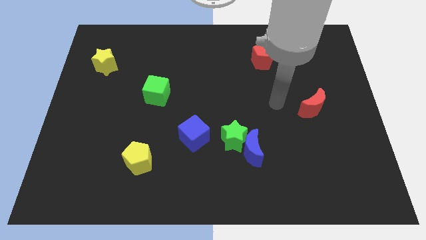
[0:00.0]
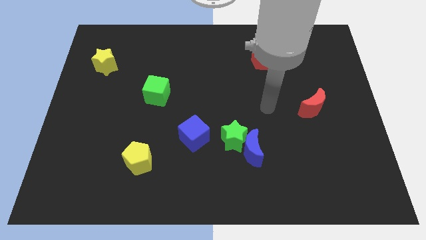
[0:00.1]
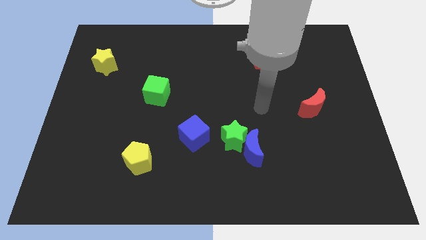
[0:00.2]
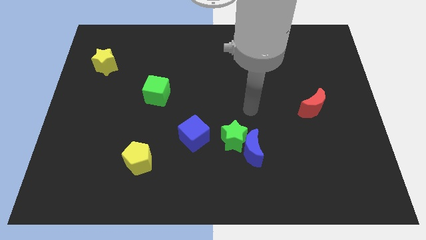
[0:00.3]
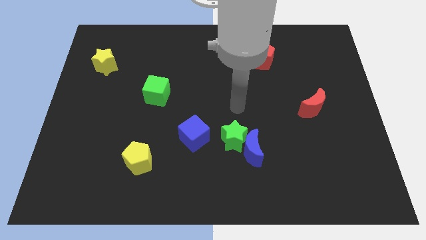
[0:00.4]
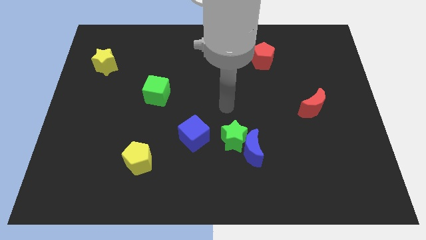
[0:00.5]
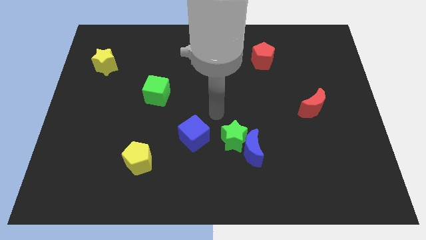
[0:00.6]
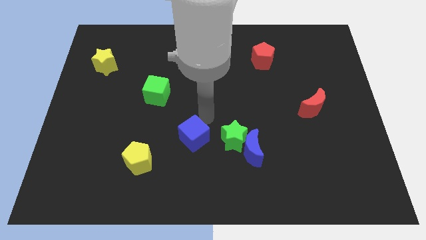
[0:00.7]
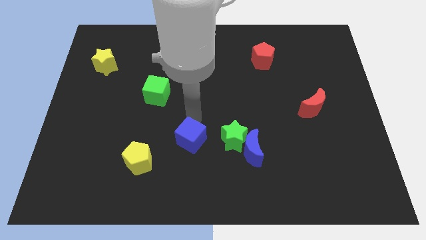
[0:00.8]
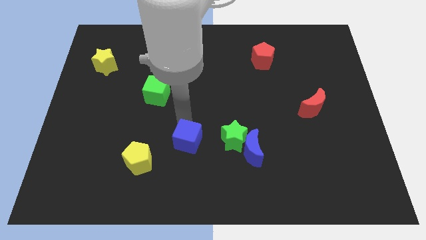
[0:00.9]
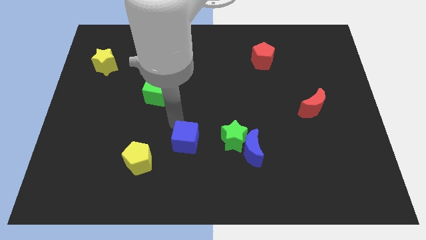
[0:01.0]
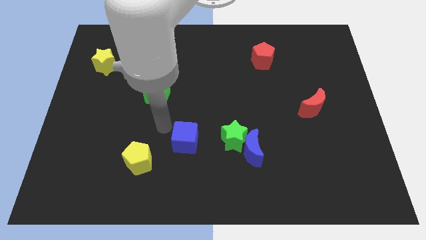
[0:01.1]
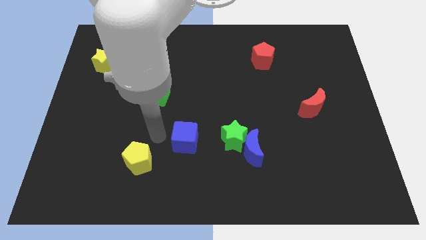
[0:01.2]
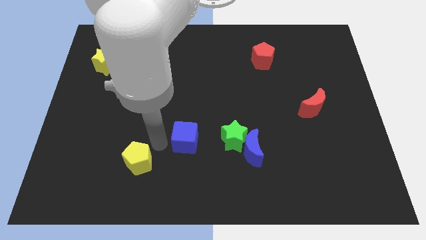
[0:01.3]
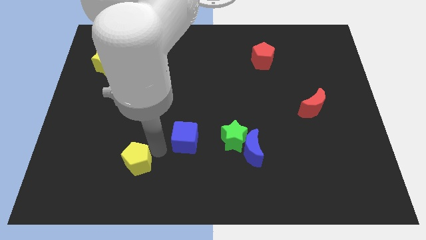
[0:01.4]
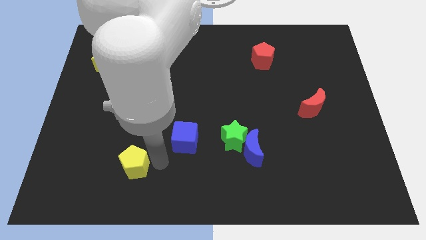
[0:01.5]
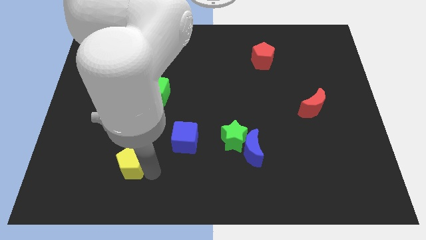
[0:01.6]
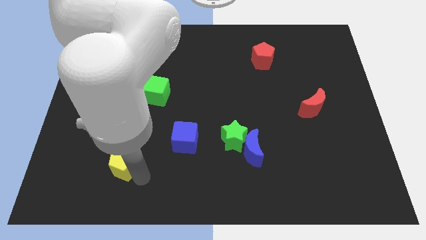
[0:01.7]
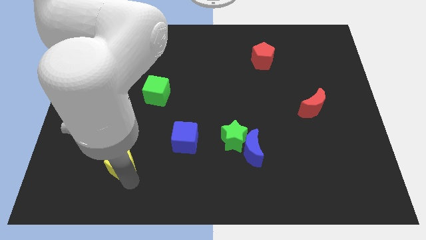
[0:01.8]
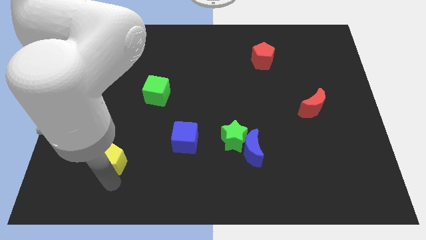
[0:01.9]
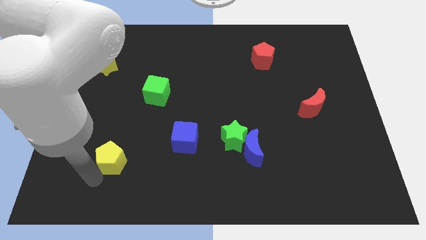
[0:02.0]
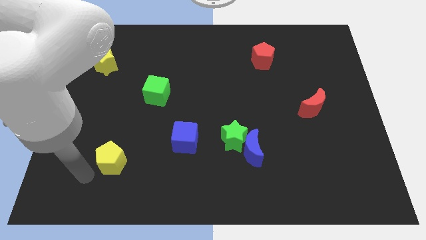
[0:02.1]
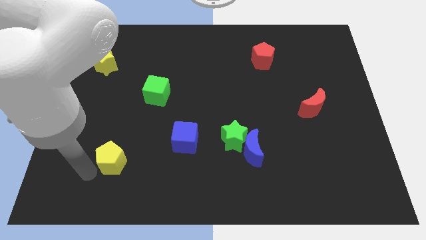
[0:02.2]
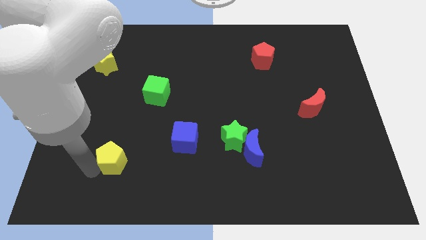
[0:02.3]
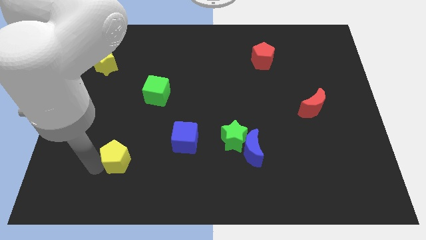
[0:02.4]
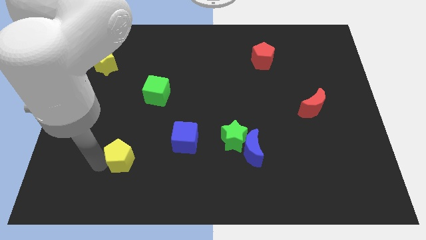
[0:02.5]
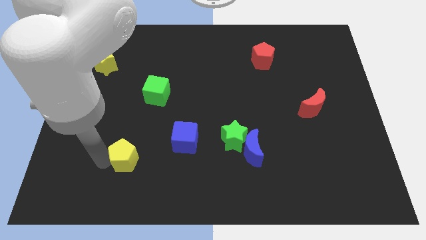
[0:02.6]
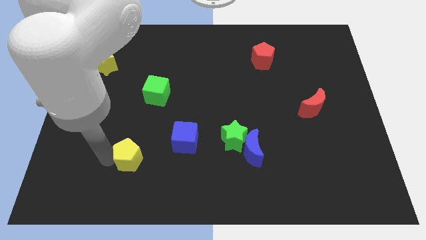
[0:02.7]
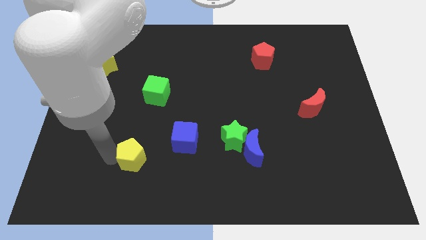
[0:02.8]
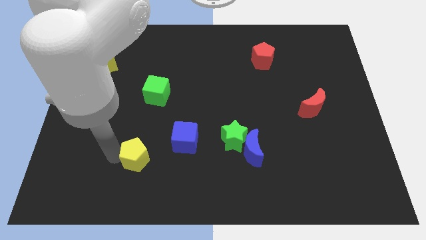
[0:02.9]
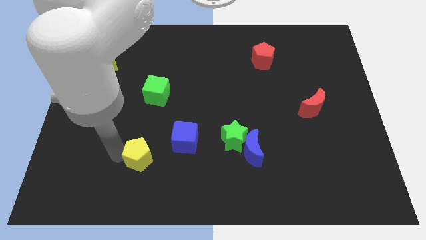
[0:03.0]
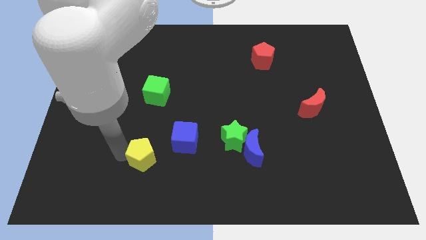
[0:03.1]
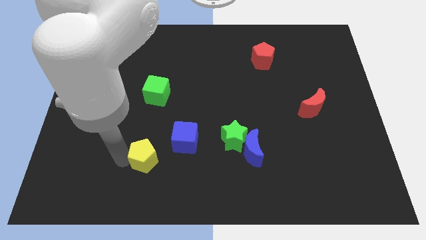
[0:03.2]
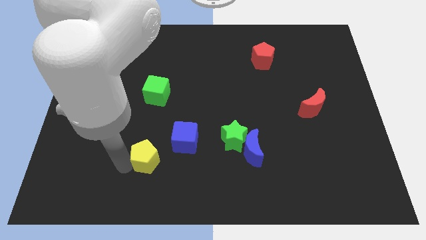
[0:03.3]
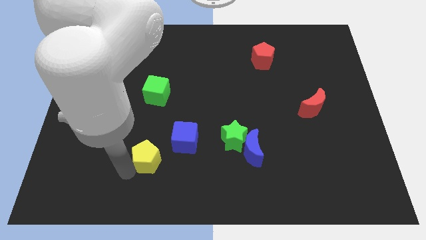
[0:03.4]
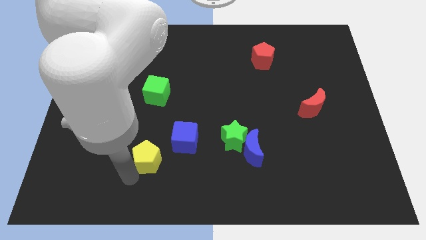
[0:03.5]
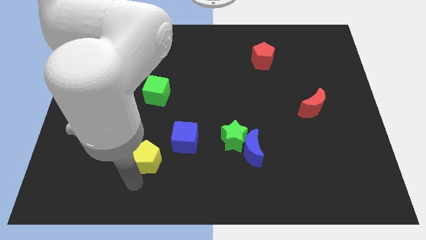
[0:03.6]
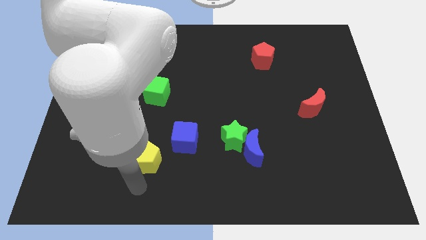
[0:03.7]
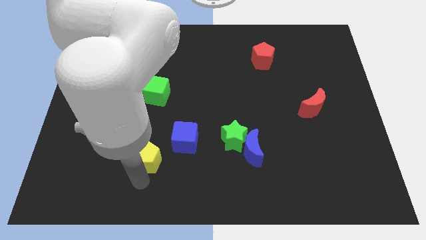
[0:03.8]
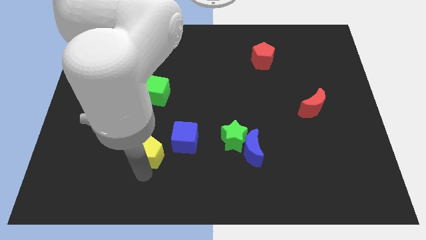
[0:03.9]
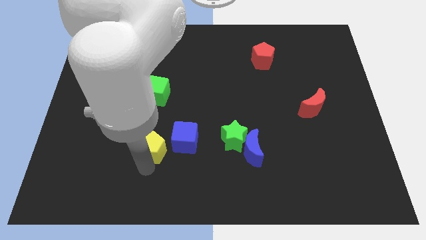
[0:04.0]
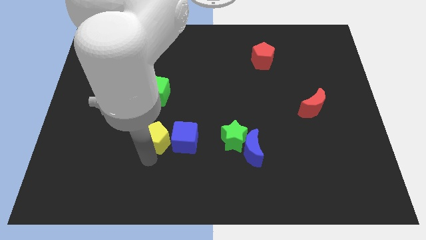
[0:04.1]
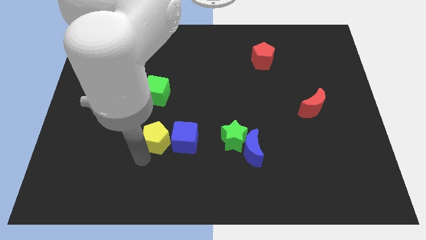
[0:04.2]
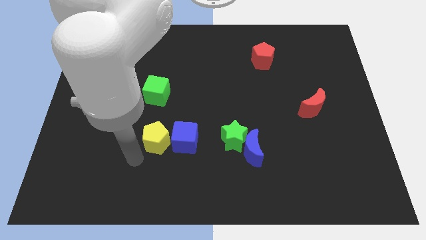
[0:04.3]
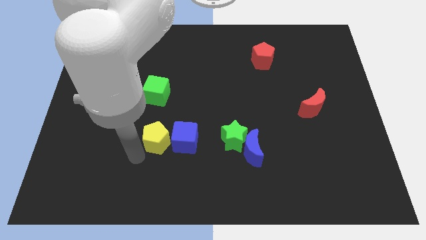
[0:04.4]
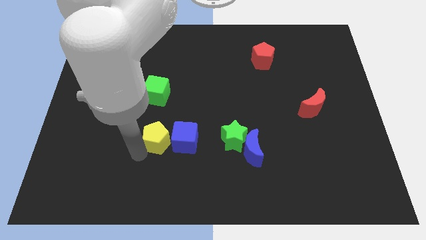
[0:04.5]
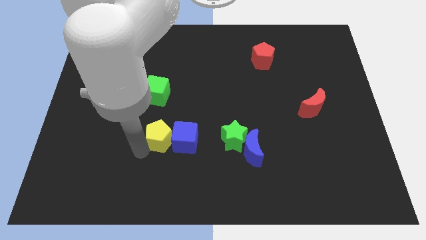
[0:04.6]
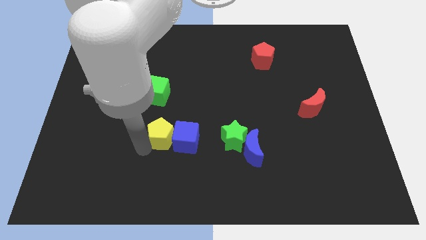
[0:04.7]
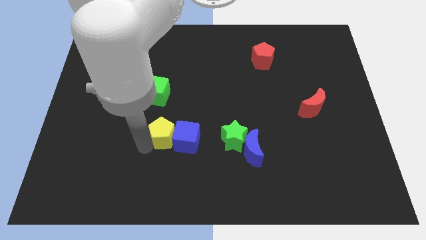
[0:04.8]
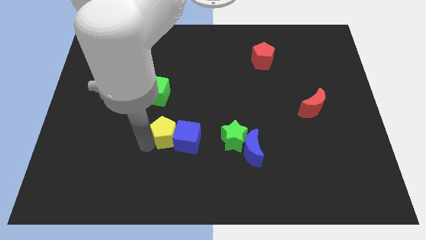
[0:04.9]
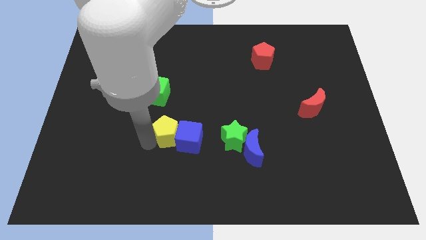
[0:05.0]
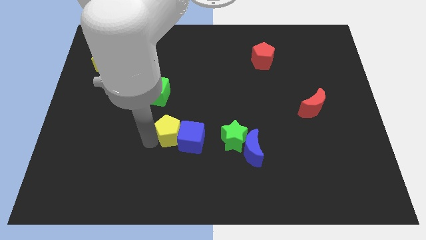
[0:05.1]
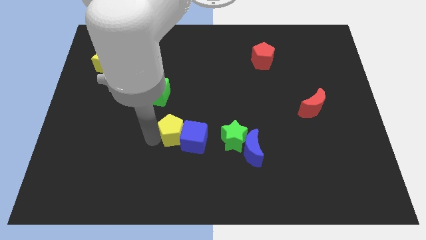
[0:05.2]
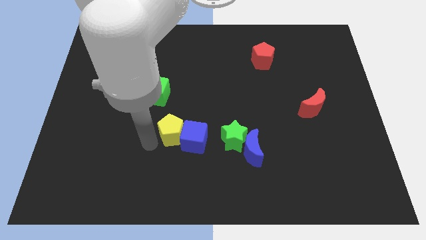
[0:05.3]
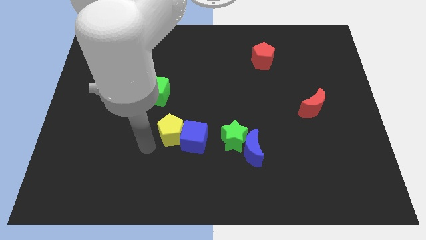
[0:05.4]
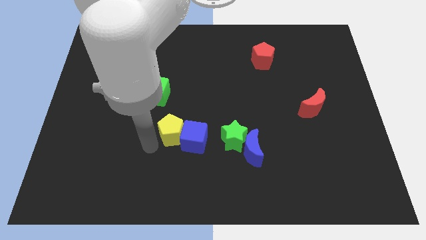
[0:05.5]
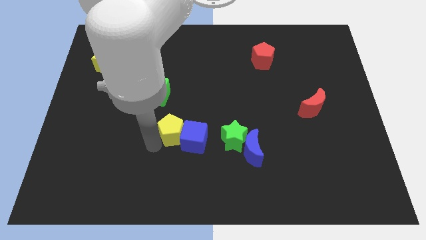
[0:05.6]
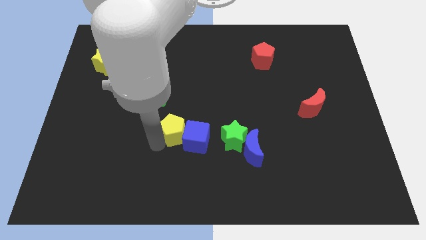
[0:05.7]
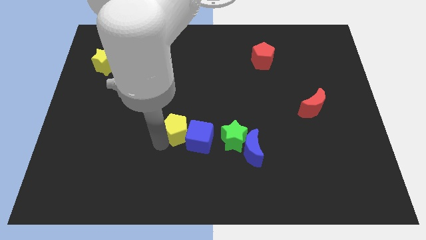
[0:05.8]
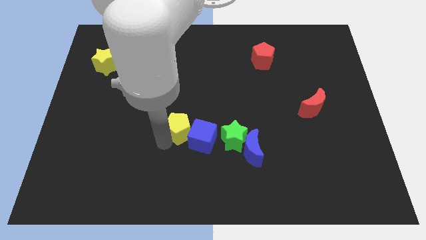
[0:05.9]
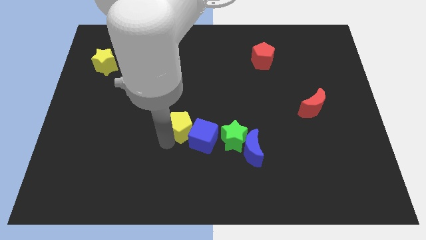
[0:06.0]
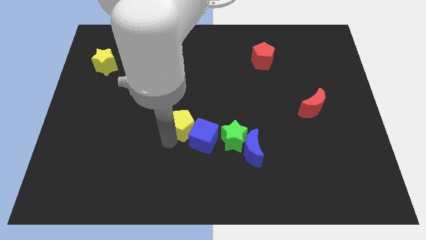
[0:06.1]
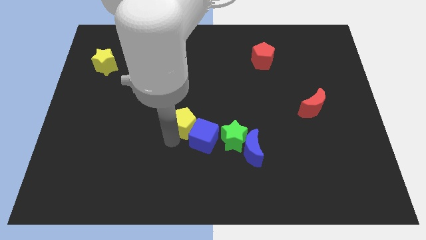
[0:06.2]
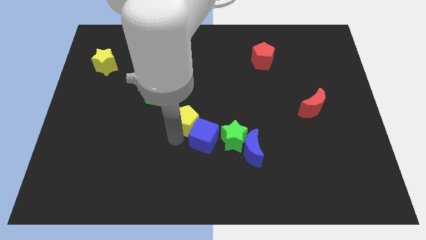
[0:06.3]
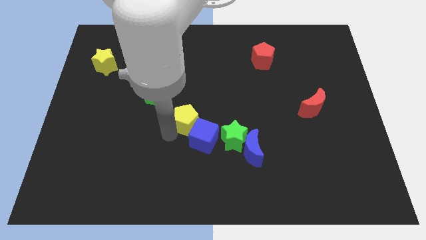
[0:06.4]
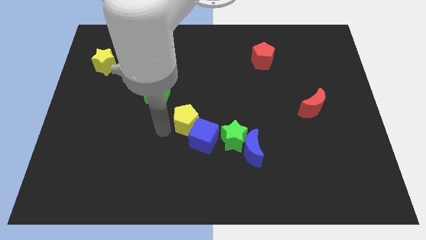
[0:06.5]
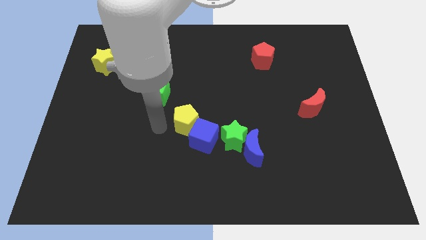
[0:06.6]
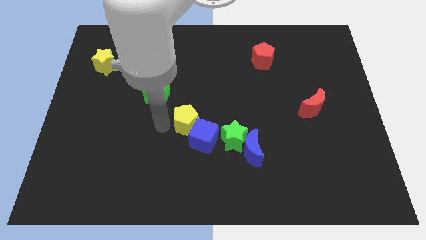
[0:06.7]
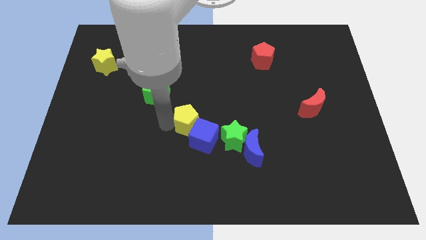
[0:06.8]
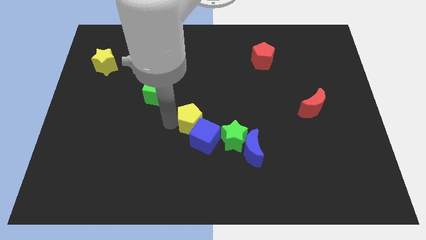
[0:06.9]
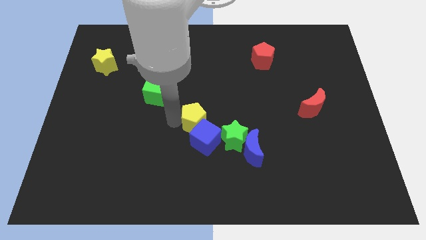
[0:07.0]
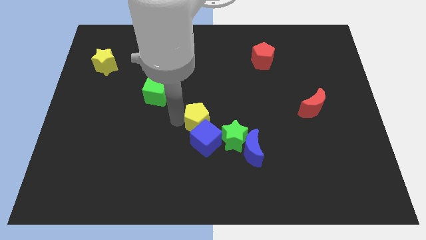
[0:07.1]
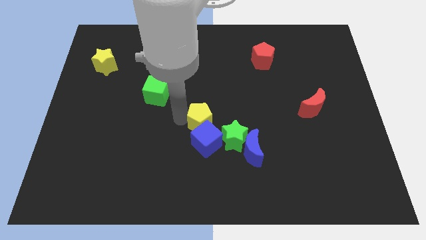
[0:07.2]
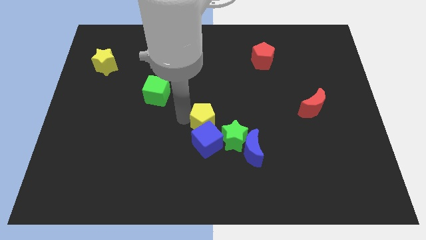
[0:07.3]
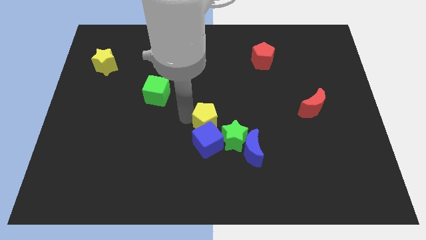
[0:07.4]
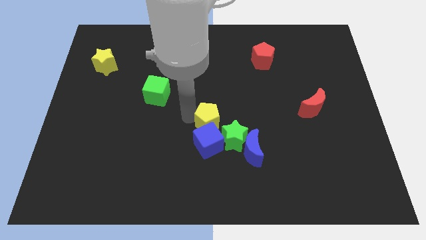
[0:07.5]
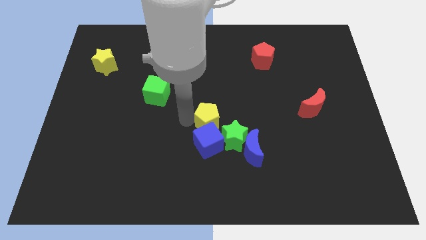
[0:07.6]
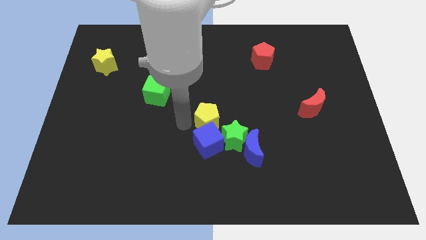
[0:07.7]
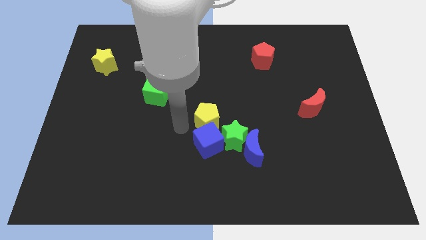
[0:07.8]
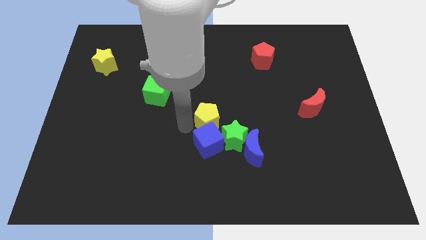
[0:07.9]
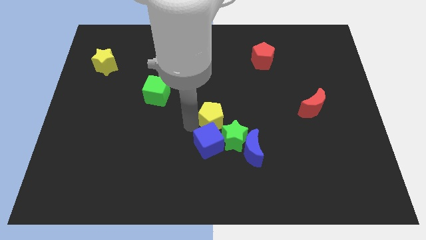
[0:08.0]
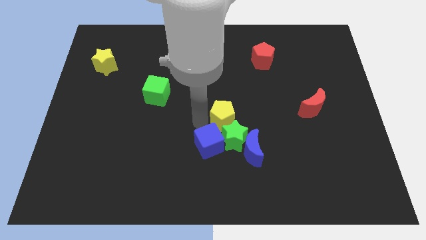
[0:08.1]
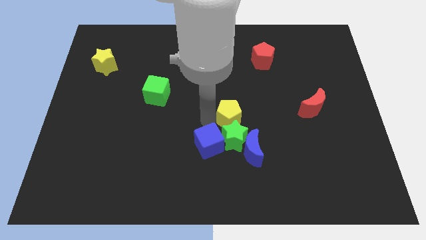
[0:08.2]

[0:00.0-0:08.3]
push the yellow pentagon to the top of the blue moon
